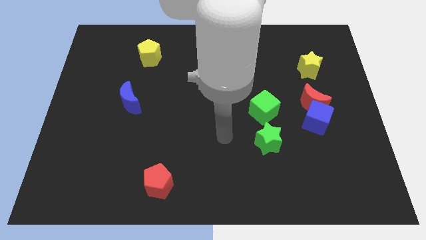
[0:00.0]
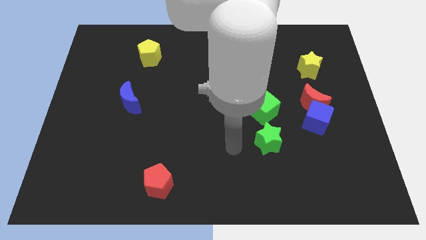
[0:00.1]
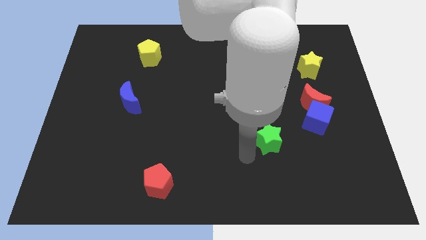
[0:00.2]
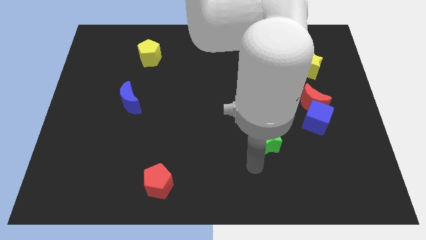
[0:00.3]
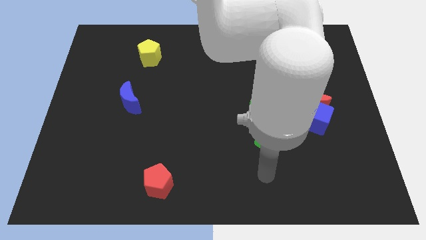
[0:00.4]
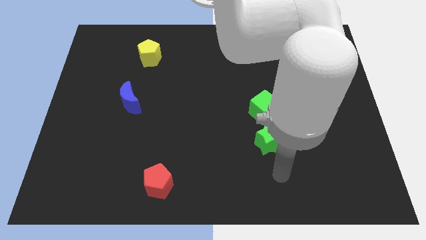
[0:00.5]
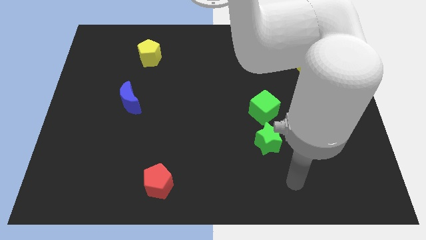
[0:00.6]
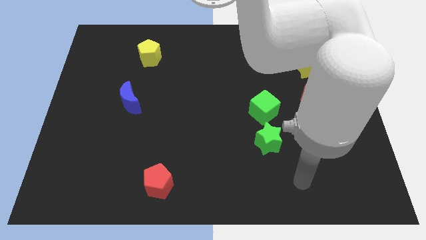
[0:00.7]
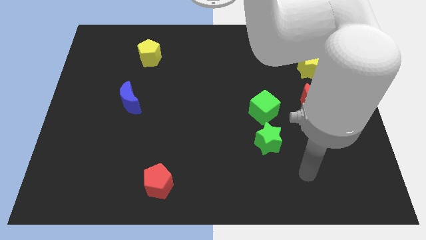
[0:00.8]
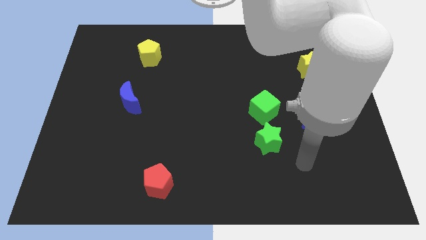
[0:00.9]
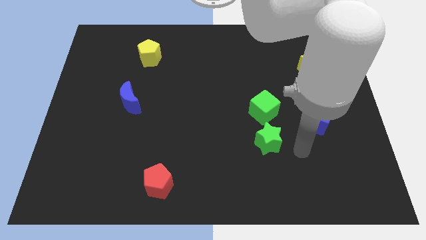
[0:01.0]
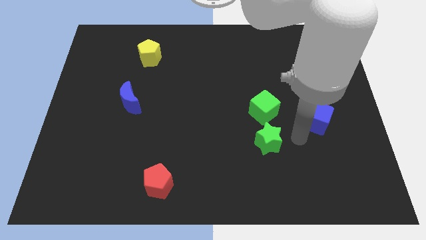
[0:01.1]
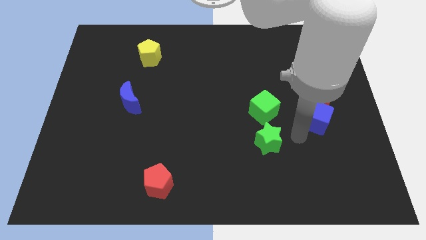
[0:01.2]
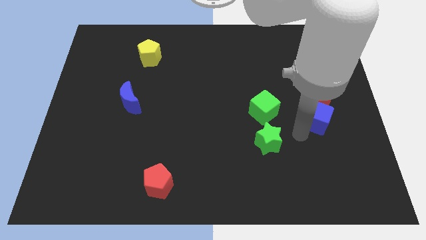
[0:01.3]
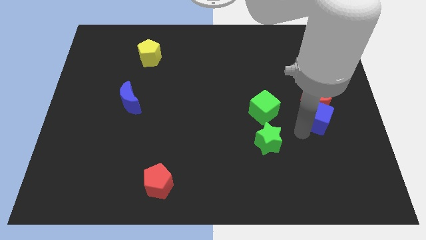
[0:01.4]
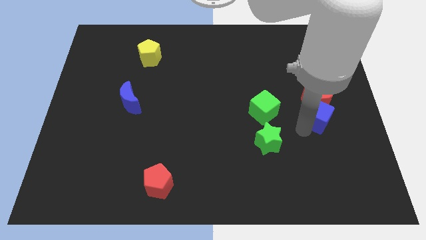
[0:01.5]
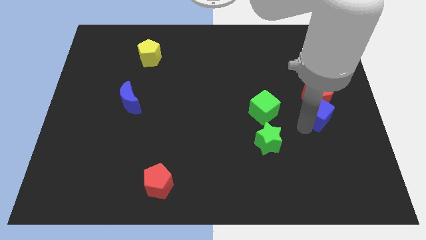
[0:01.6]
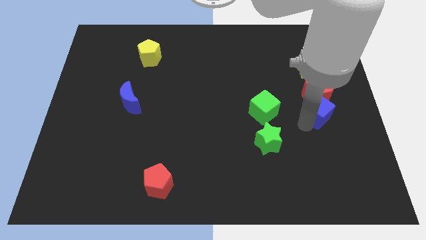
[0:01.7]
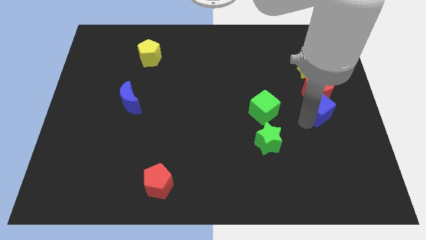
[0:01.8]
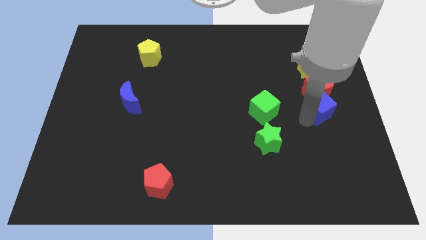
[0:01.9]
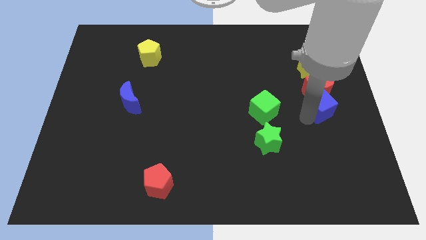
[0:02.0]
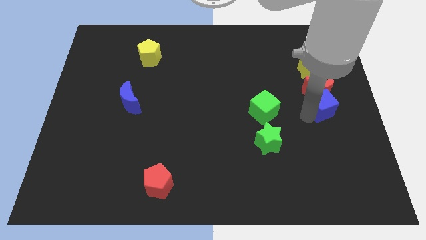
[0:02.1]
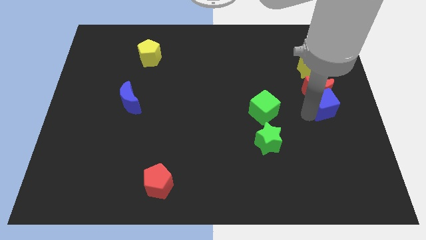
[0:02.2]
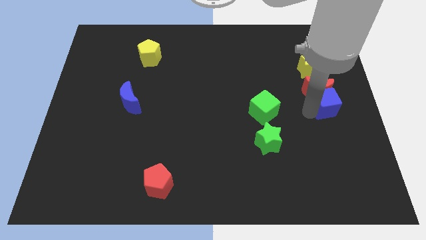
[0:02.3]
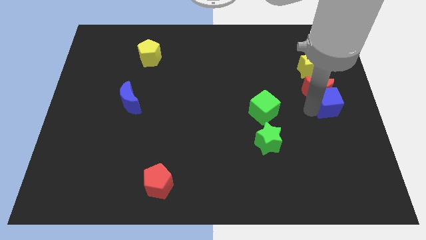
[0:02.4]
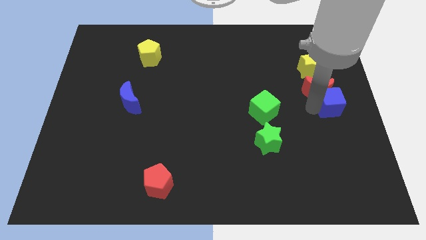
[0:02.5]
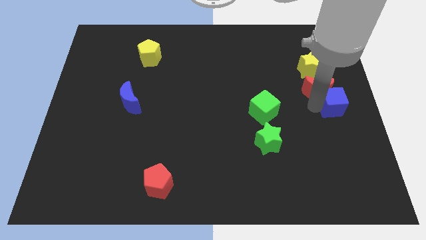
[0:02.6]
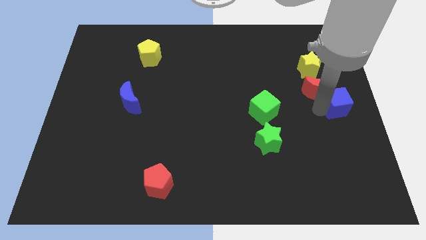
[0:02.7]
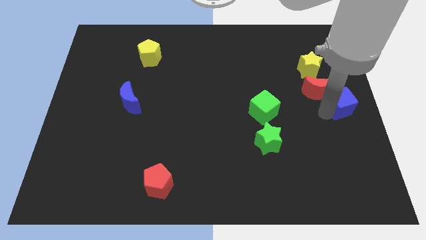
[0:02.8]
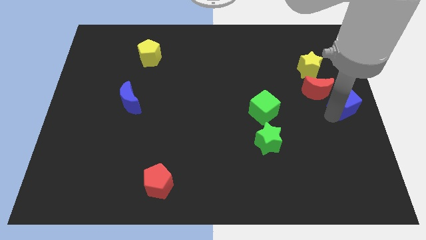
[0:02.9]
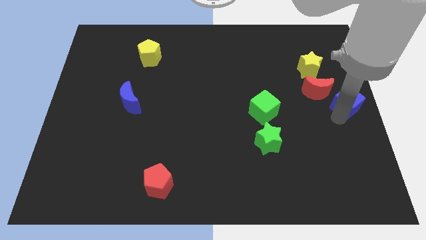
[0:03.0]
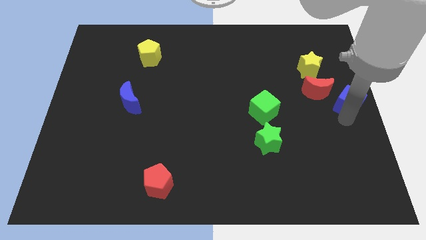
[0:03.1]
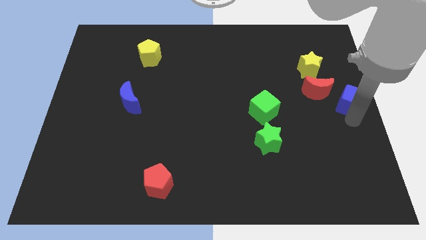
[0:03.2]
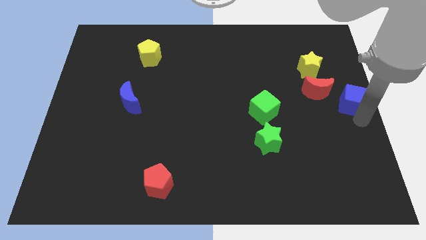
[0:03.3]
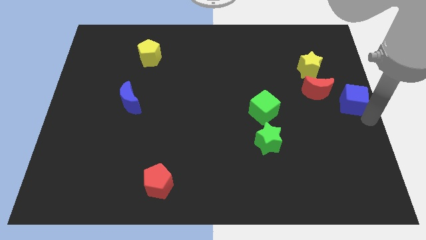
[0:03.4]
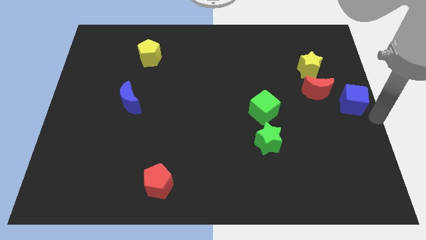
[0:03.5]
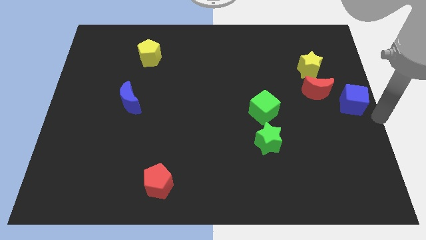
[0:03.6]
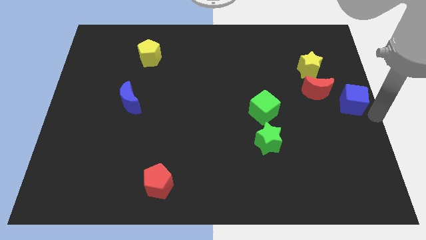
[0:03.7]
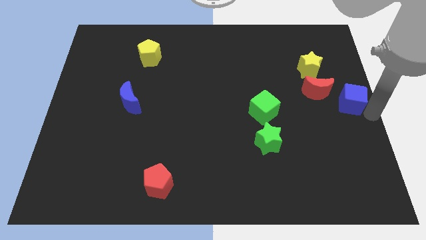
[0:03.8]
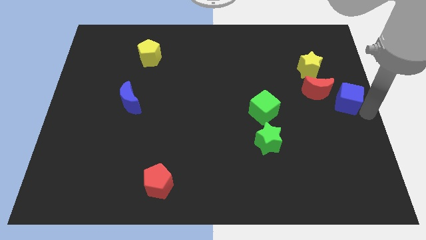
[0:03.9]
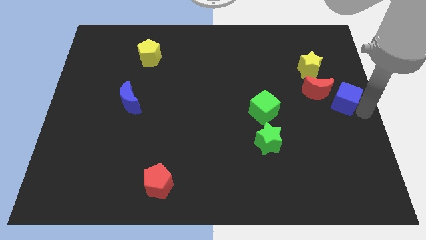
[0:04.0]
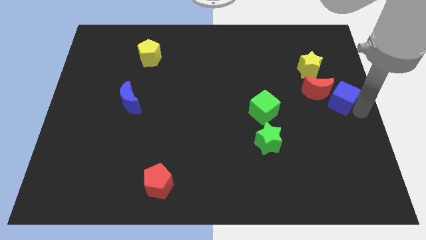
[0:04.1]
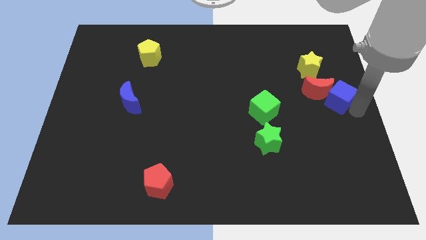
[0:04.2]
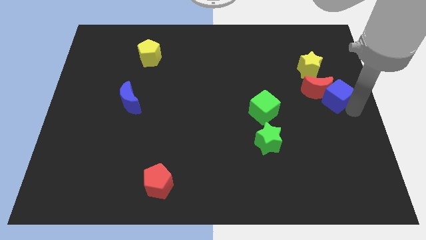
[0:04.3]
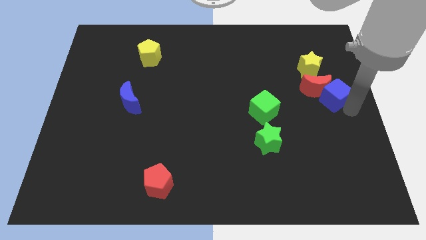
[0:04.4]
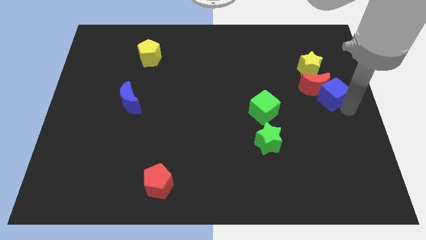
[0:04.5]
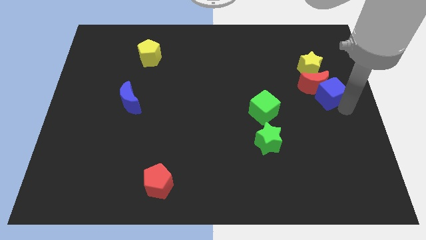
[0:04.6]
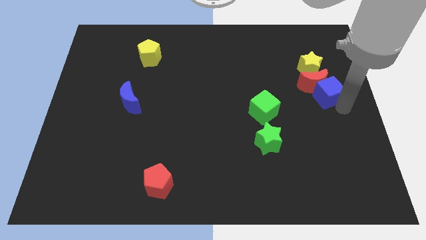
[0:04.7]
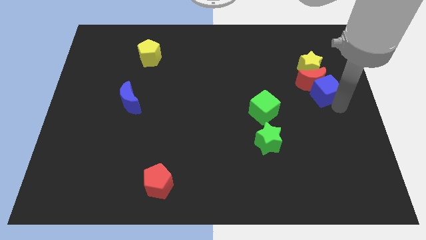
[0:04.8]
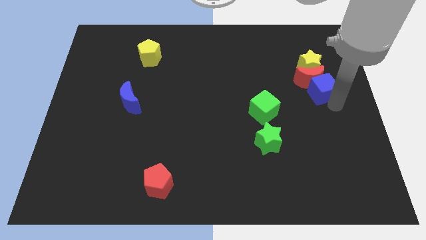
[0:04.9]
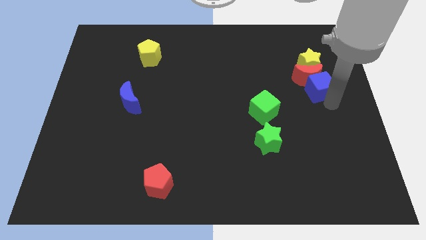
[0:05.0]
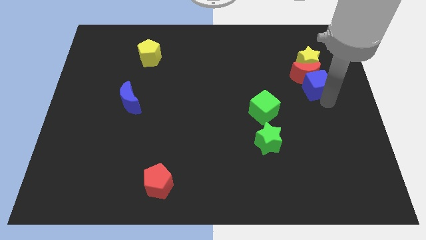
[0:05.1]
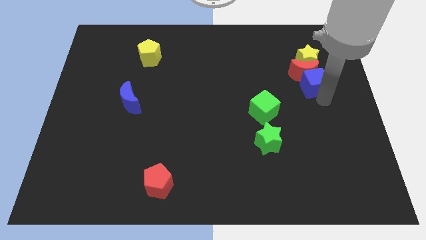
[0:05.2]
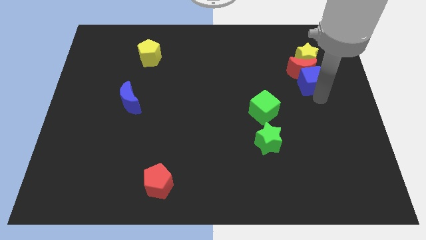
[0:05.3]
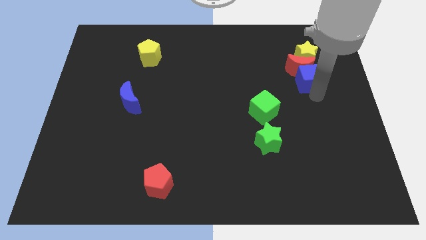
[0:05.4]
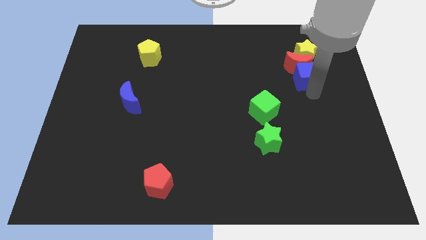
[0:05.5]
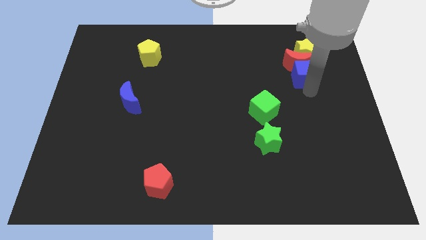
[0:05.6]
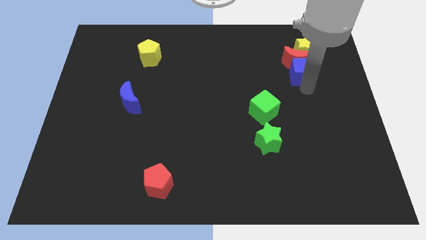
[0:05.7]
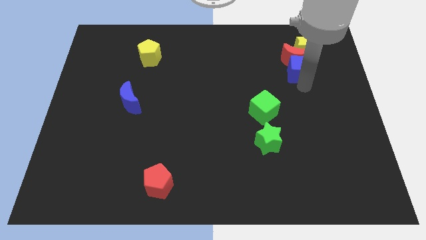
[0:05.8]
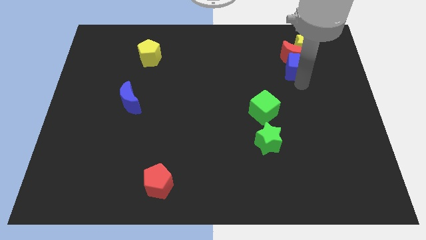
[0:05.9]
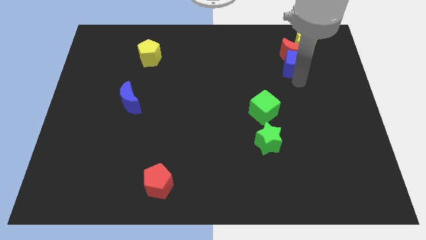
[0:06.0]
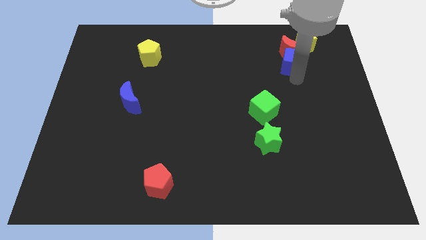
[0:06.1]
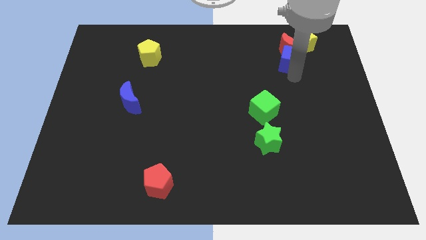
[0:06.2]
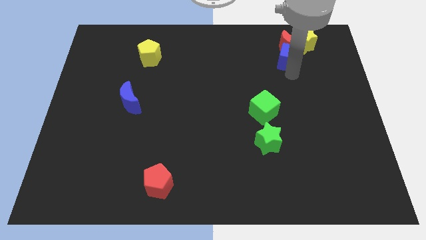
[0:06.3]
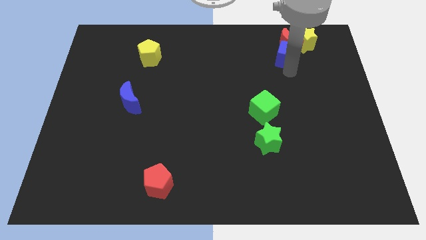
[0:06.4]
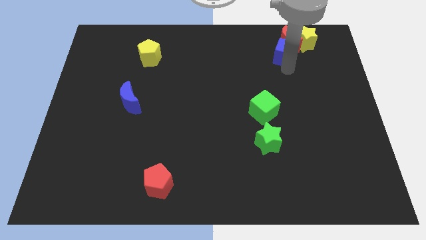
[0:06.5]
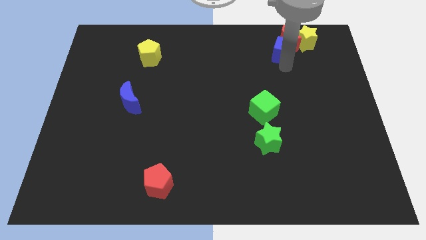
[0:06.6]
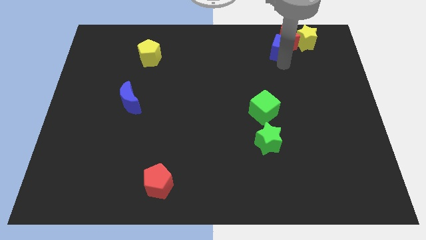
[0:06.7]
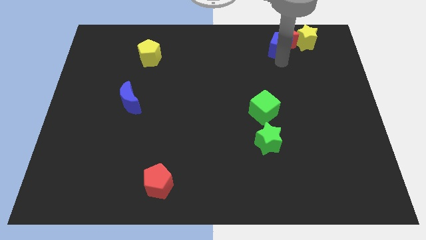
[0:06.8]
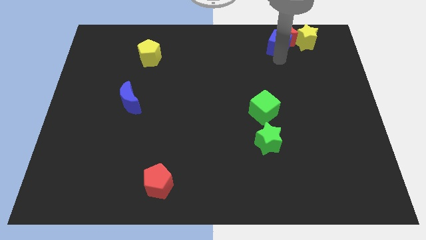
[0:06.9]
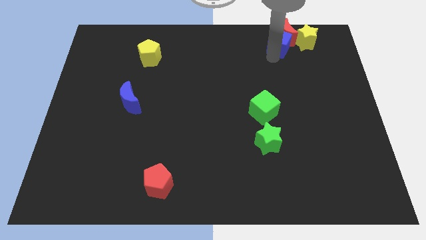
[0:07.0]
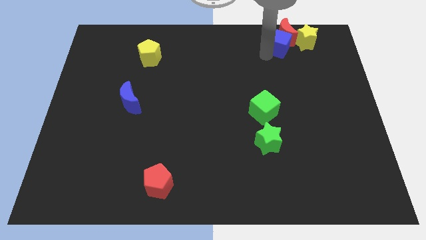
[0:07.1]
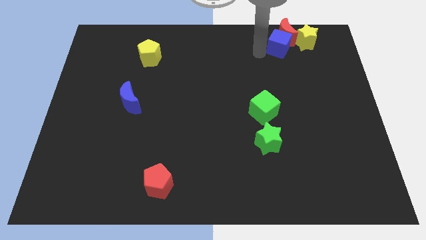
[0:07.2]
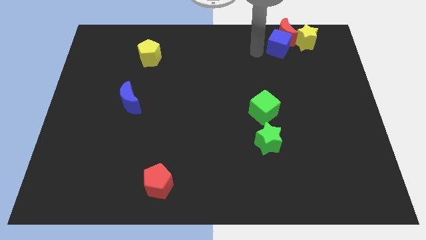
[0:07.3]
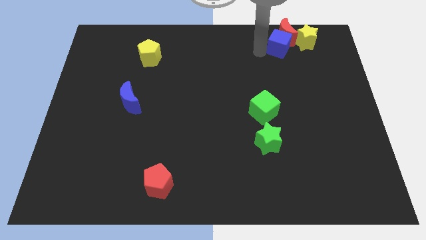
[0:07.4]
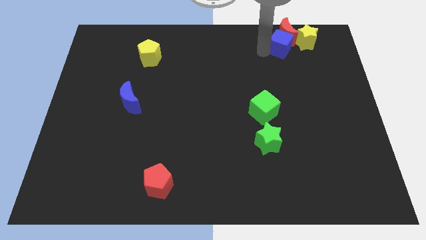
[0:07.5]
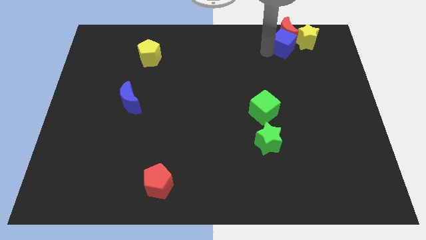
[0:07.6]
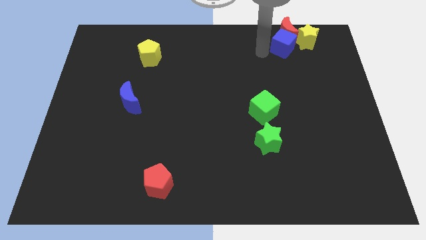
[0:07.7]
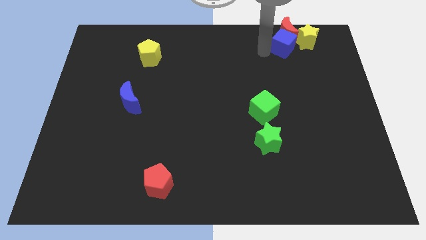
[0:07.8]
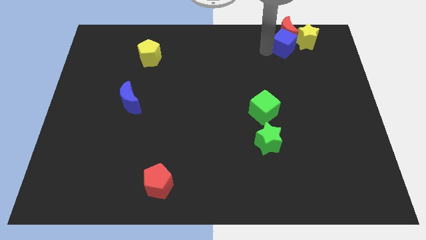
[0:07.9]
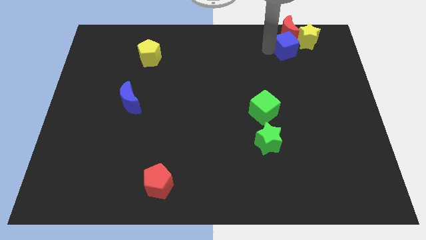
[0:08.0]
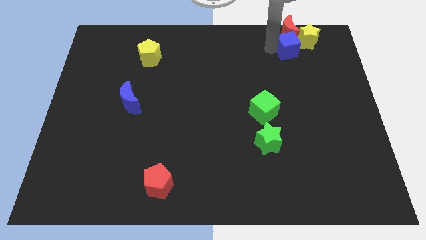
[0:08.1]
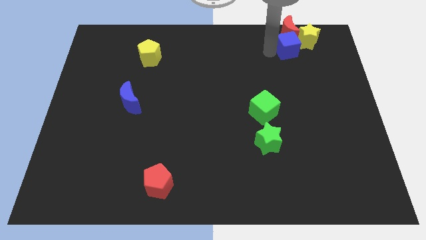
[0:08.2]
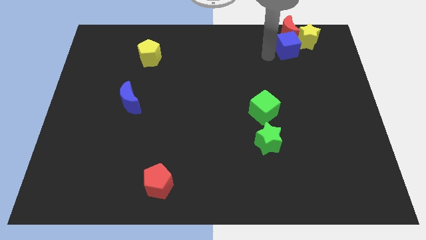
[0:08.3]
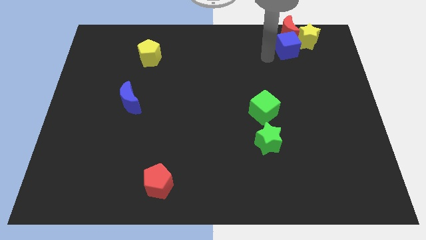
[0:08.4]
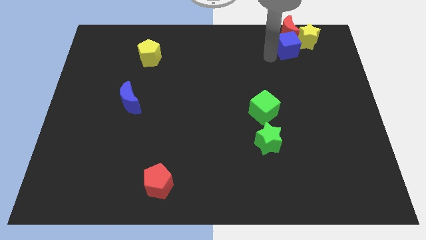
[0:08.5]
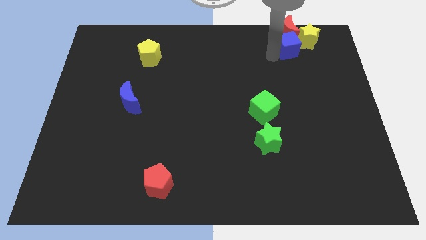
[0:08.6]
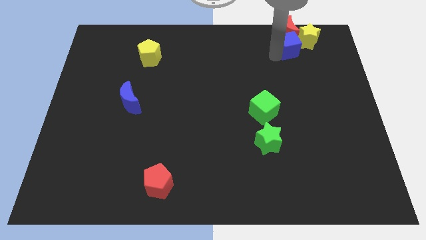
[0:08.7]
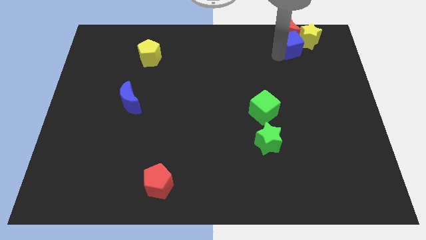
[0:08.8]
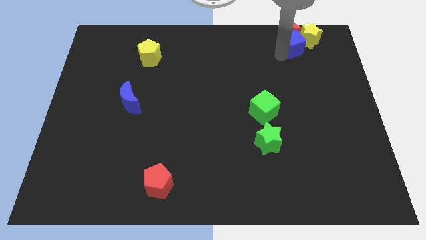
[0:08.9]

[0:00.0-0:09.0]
slide the blue cube close to the yellow star
